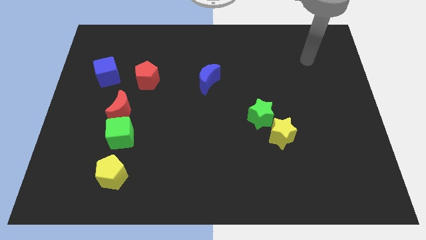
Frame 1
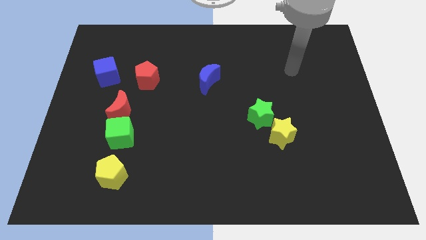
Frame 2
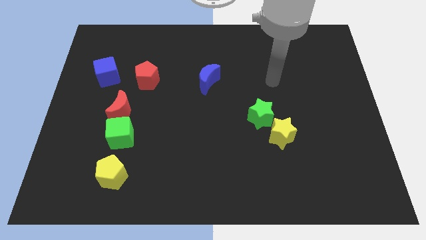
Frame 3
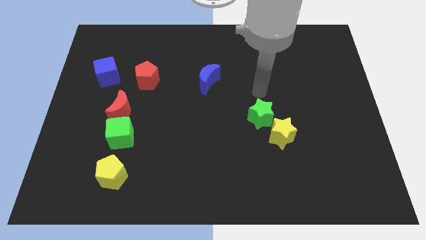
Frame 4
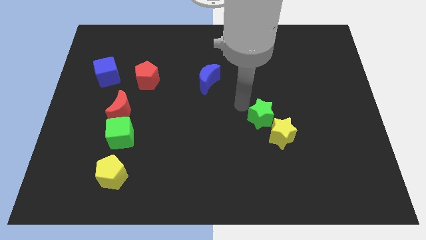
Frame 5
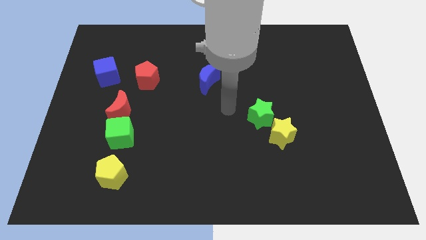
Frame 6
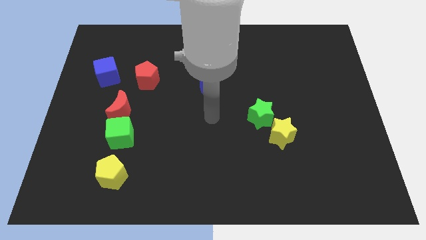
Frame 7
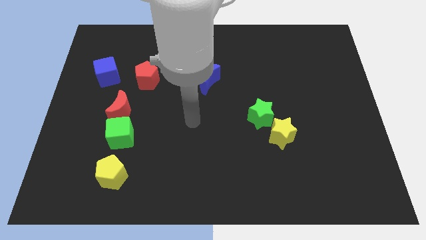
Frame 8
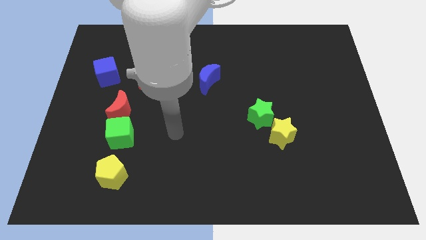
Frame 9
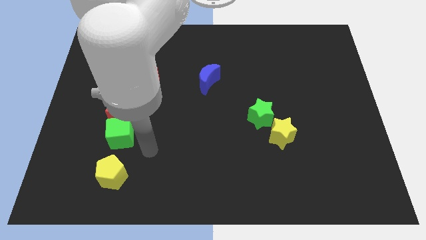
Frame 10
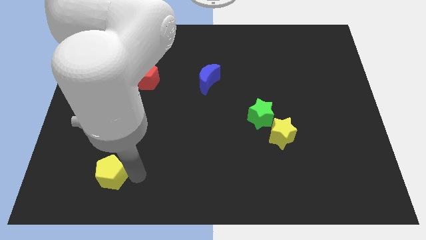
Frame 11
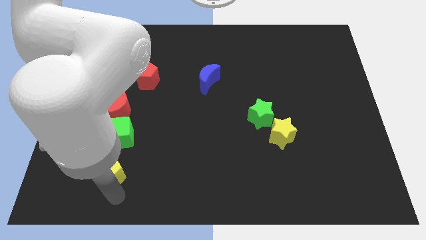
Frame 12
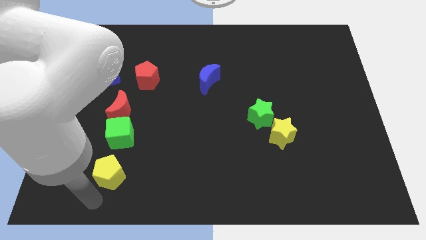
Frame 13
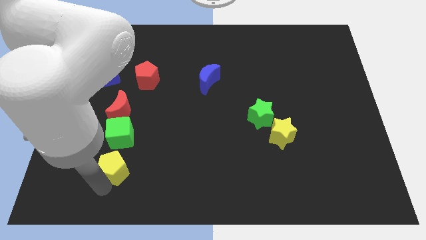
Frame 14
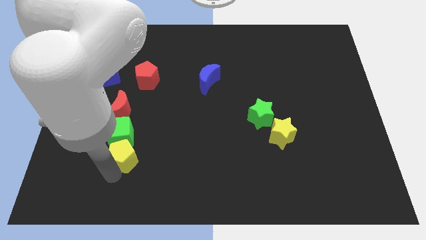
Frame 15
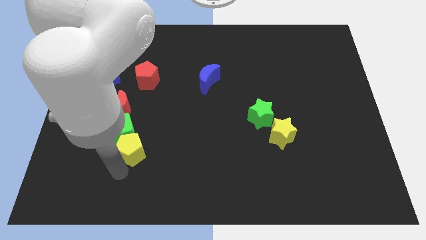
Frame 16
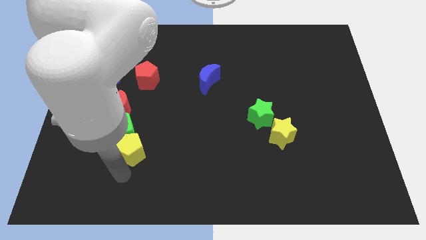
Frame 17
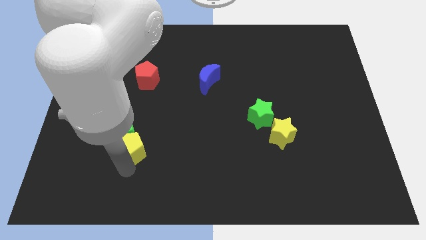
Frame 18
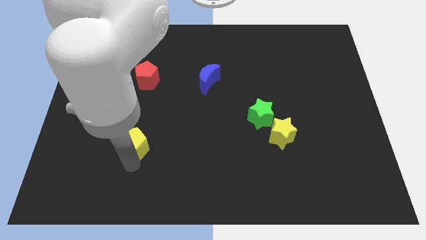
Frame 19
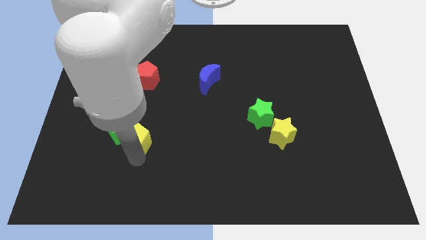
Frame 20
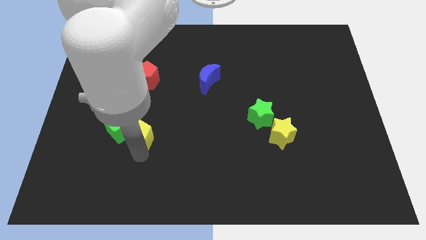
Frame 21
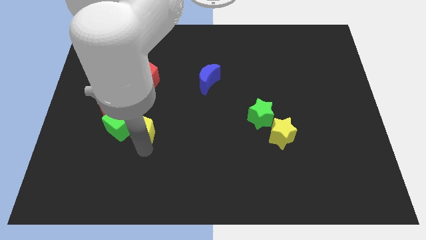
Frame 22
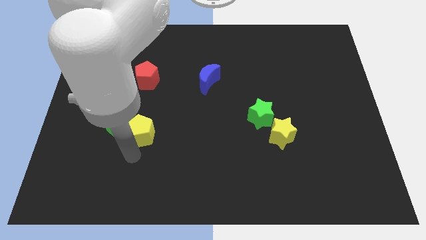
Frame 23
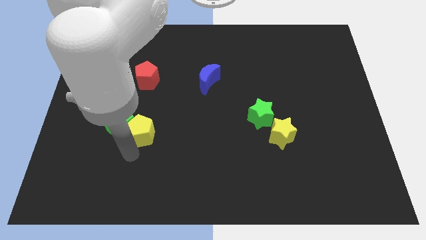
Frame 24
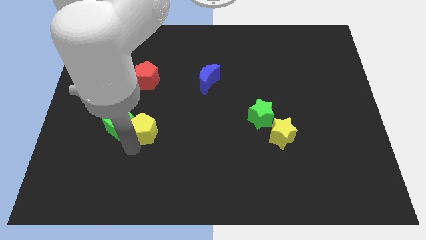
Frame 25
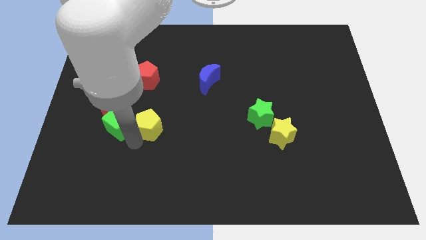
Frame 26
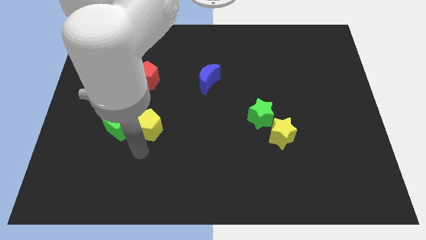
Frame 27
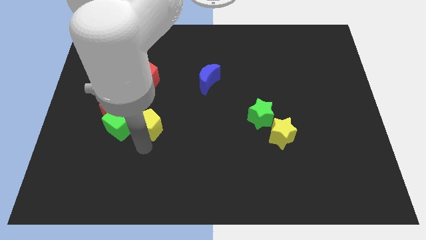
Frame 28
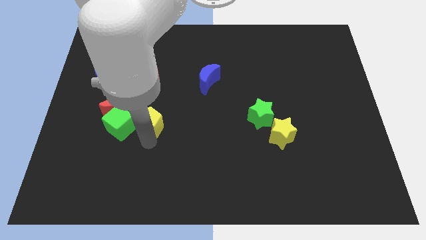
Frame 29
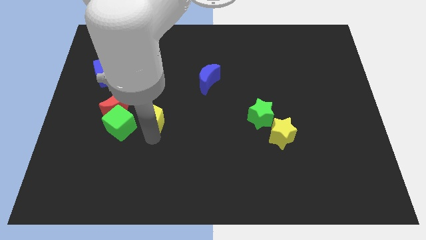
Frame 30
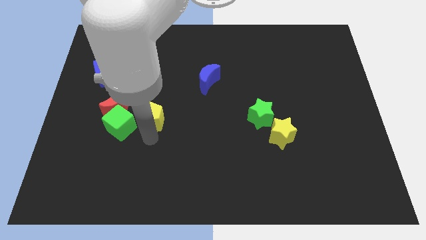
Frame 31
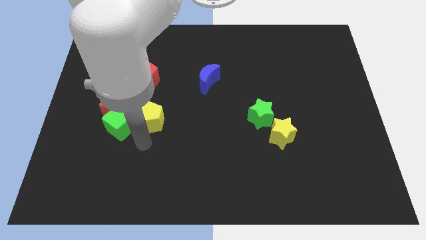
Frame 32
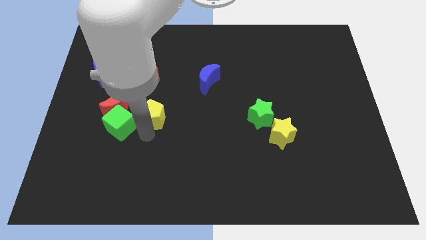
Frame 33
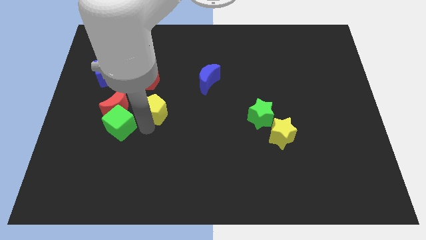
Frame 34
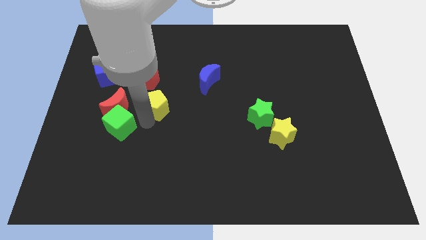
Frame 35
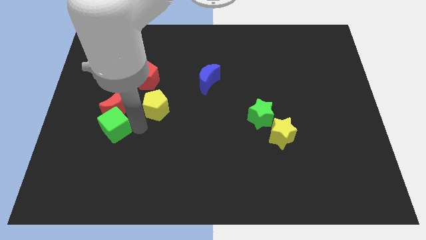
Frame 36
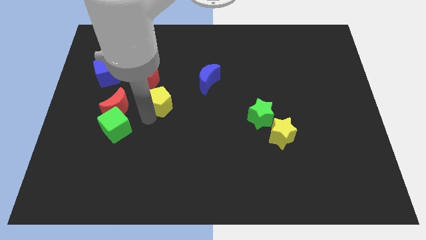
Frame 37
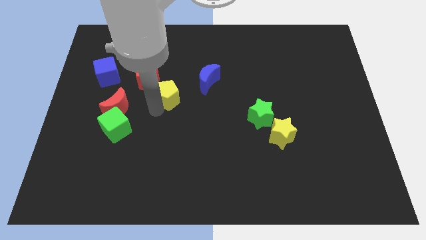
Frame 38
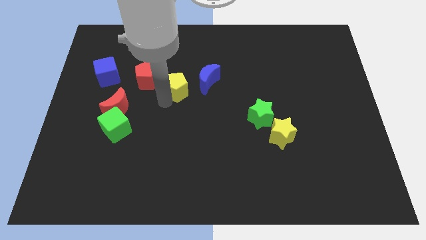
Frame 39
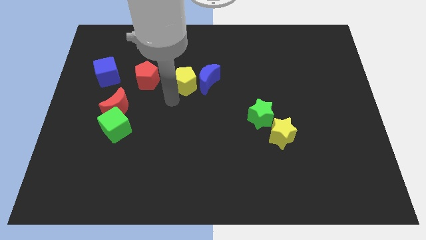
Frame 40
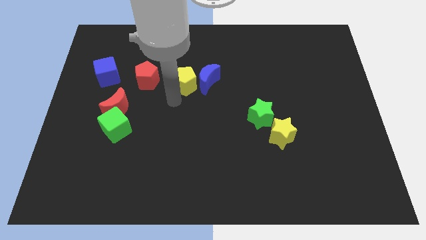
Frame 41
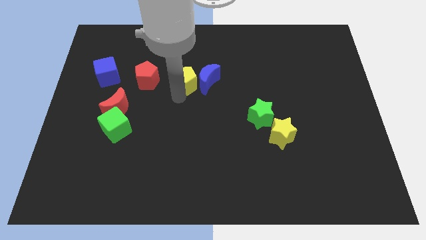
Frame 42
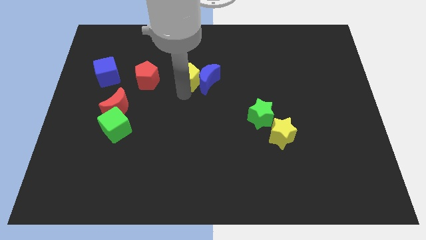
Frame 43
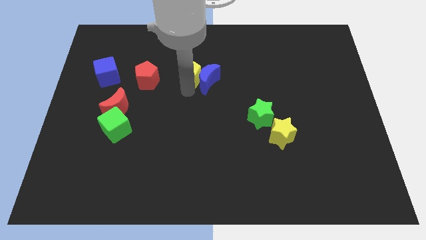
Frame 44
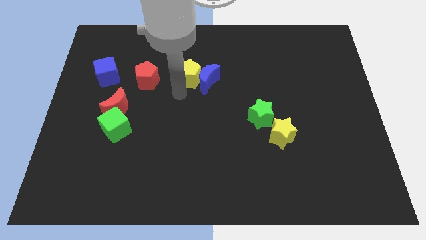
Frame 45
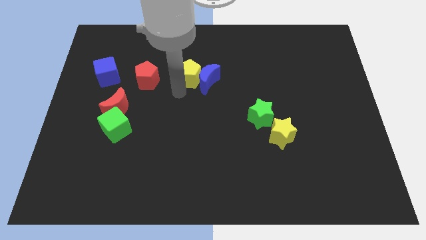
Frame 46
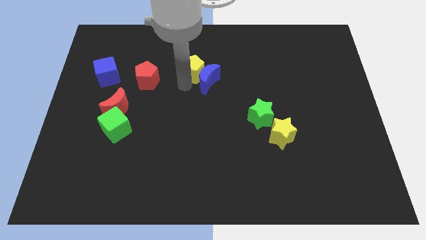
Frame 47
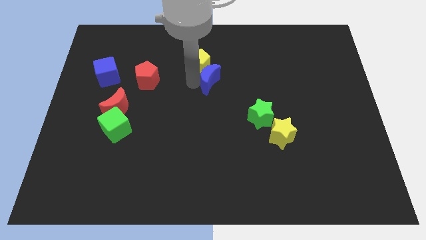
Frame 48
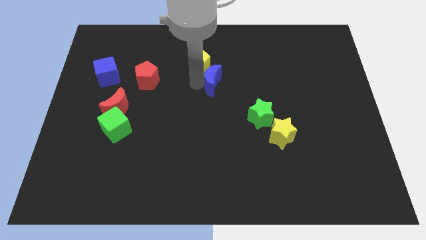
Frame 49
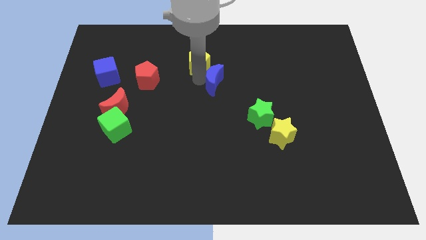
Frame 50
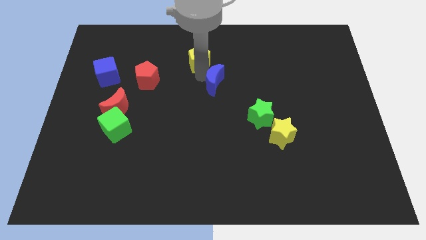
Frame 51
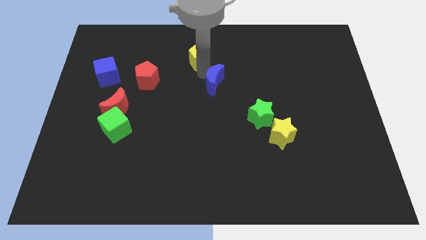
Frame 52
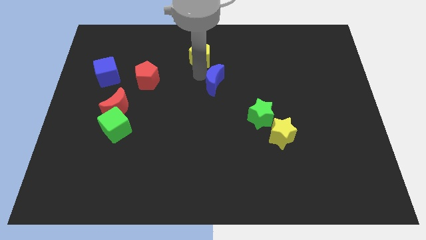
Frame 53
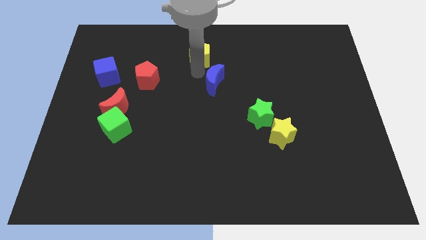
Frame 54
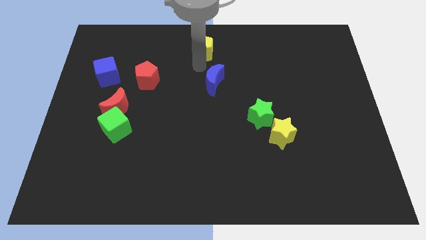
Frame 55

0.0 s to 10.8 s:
move the yellow pentagon to the top side

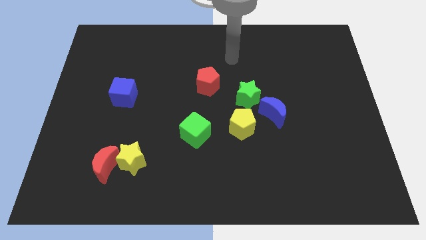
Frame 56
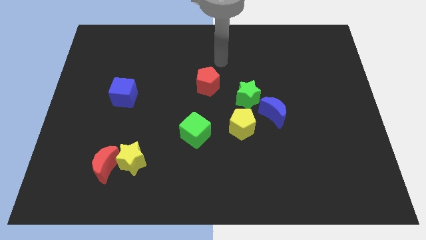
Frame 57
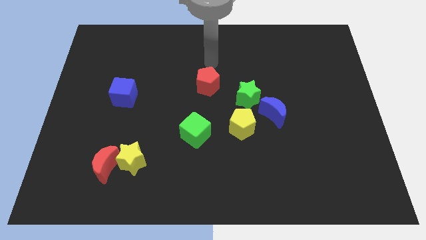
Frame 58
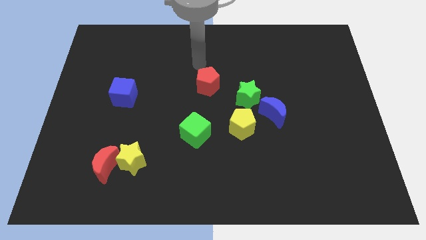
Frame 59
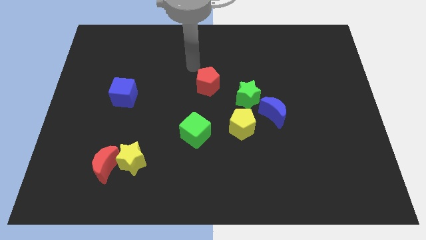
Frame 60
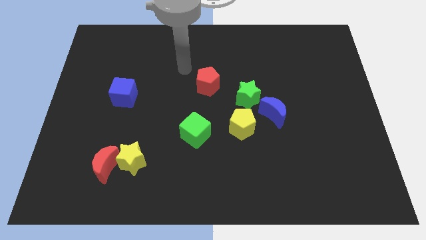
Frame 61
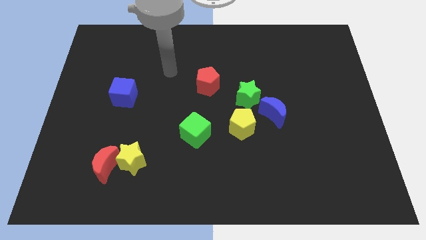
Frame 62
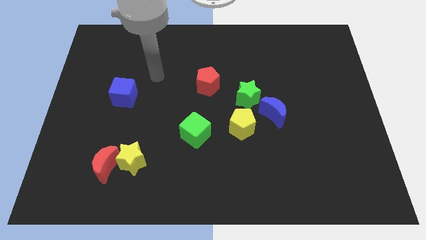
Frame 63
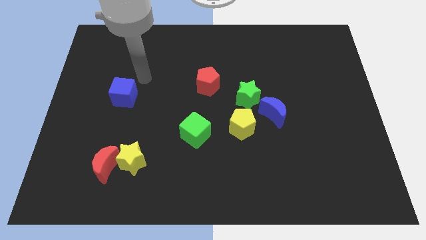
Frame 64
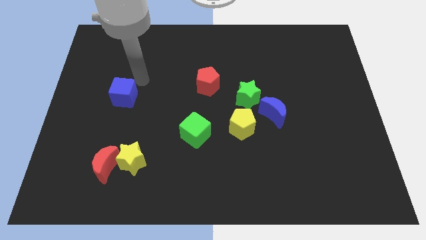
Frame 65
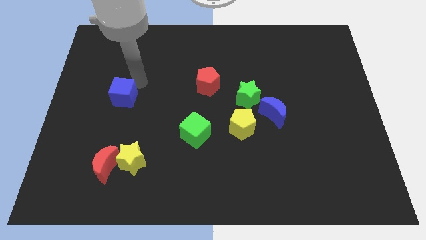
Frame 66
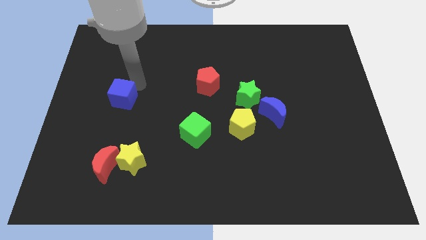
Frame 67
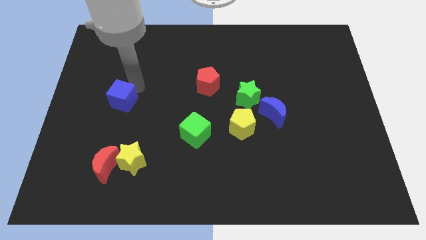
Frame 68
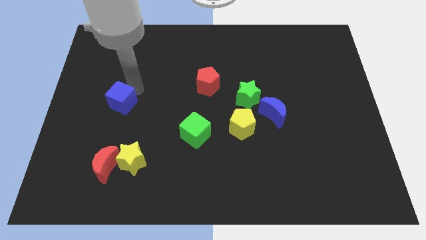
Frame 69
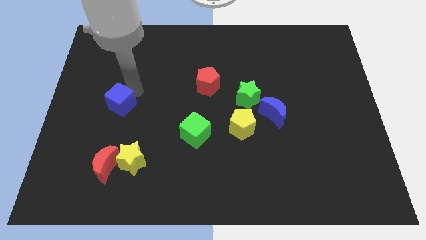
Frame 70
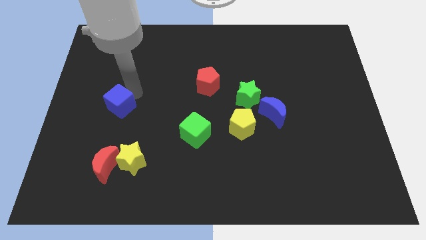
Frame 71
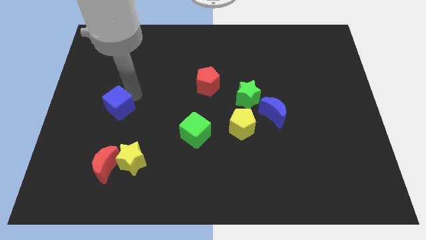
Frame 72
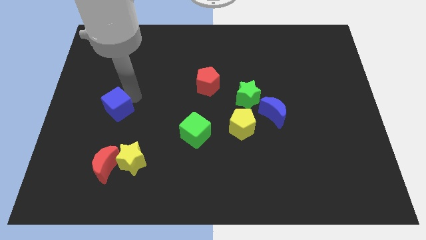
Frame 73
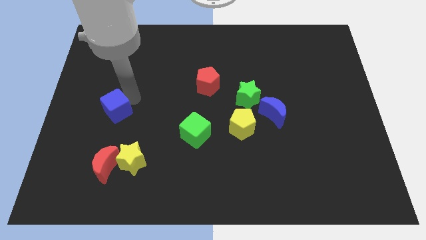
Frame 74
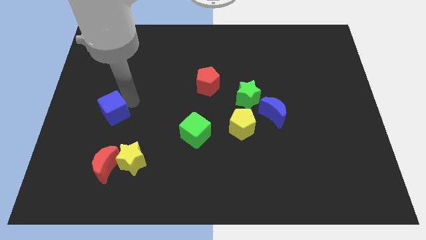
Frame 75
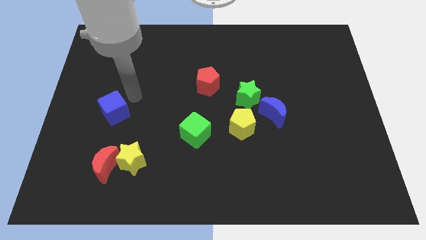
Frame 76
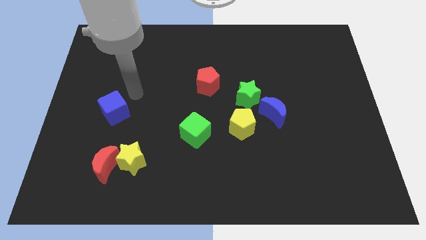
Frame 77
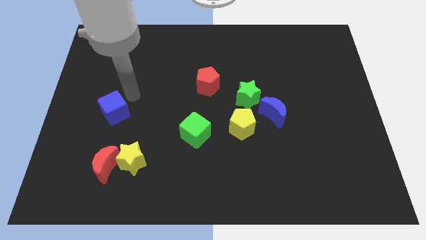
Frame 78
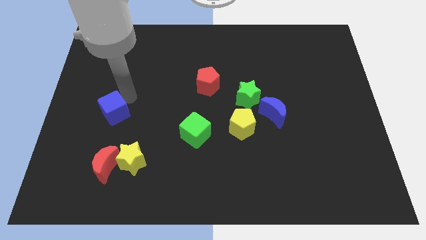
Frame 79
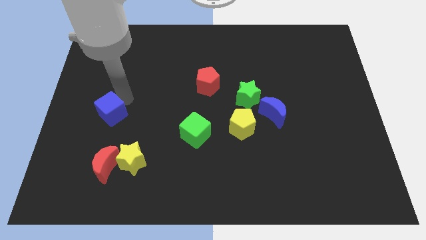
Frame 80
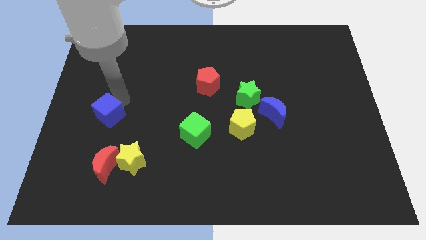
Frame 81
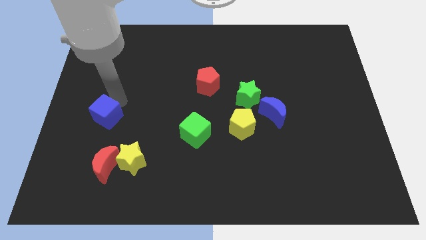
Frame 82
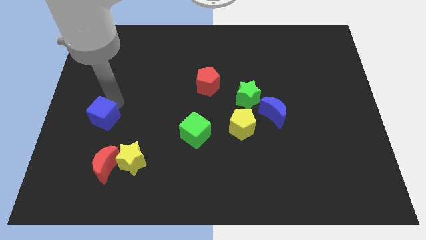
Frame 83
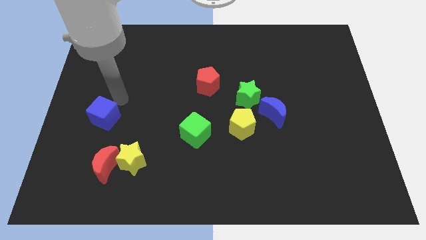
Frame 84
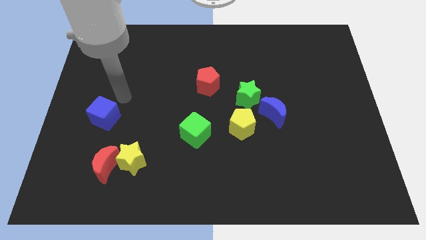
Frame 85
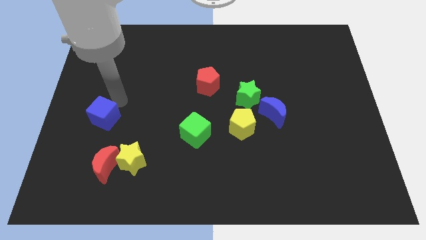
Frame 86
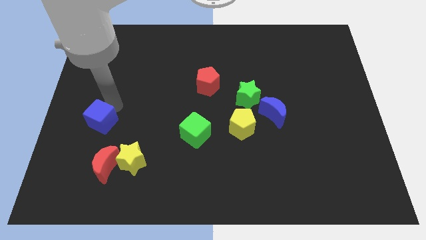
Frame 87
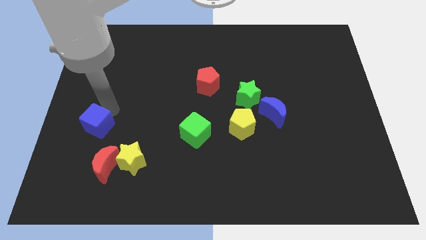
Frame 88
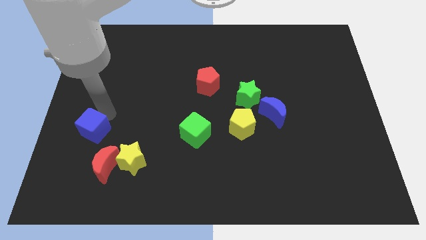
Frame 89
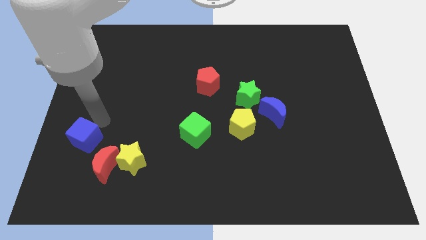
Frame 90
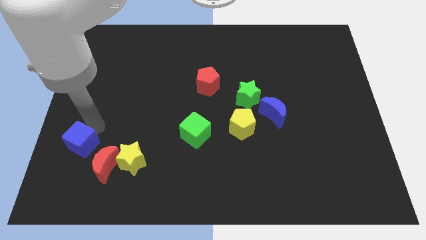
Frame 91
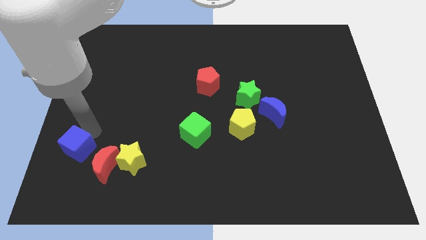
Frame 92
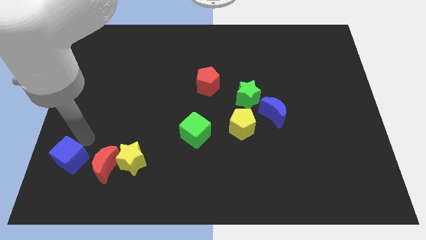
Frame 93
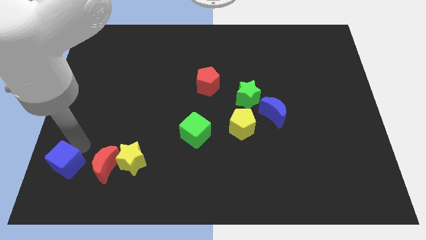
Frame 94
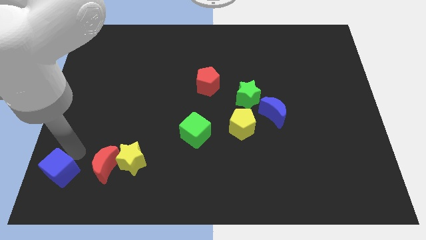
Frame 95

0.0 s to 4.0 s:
push the blue cube to the bottom left of the board
